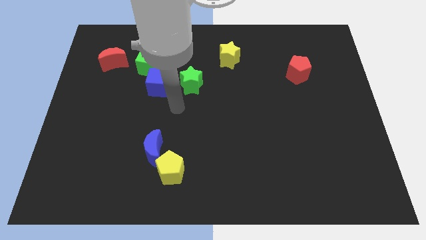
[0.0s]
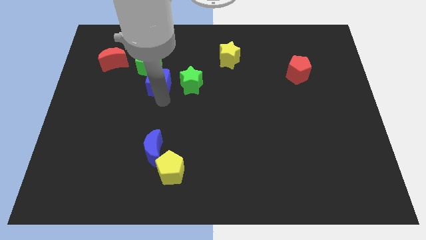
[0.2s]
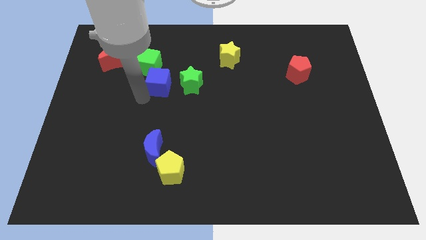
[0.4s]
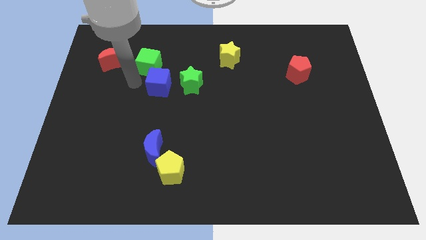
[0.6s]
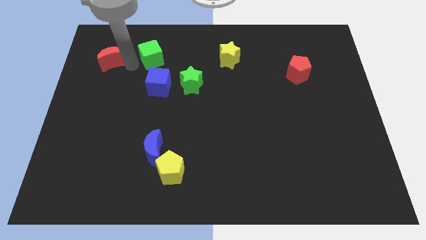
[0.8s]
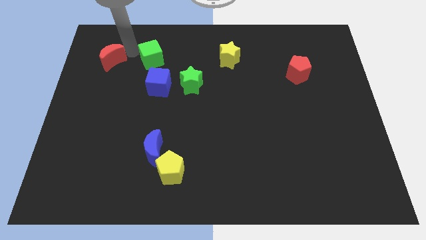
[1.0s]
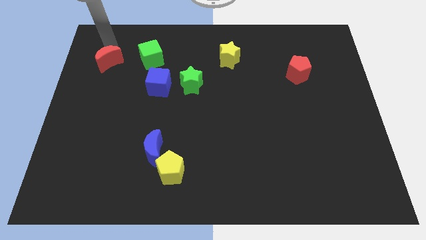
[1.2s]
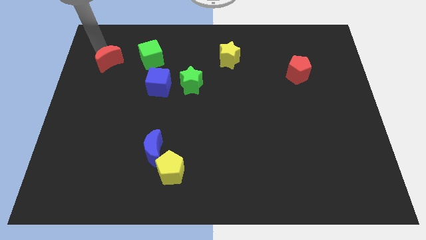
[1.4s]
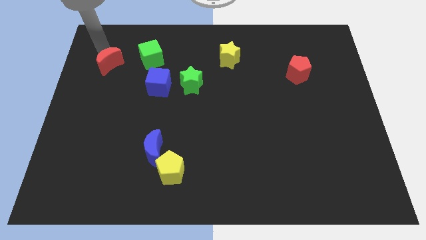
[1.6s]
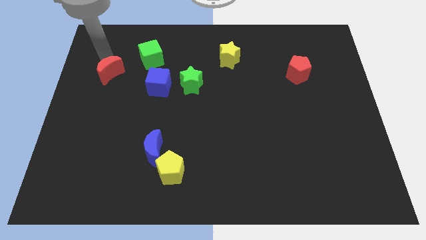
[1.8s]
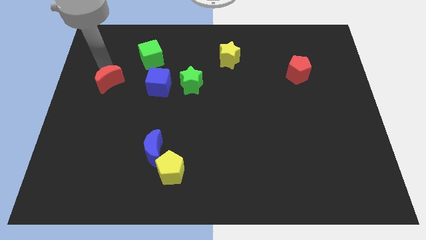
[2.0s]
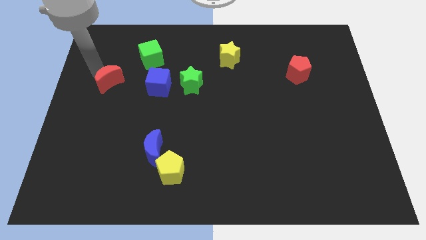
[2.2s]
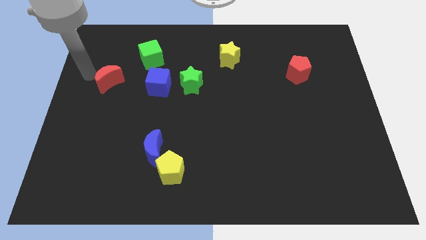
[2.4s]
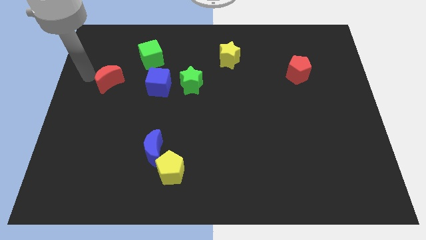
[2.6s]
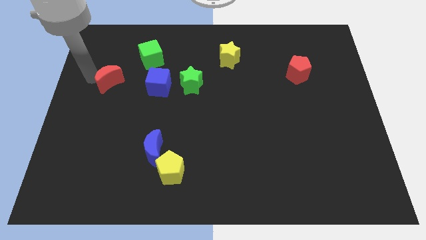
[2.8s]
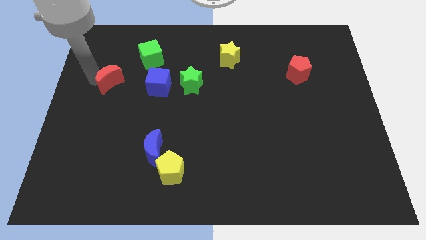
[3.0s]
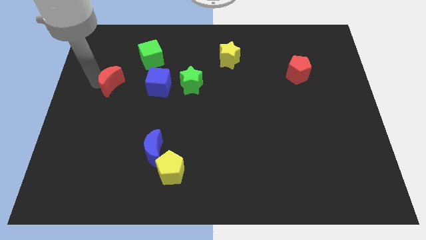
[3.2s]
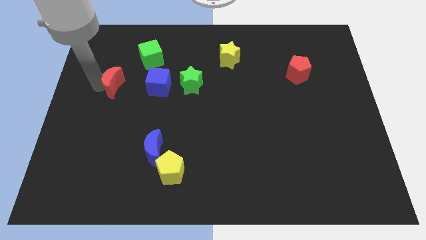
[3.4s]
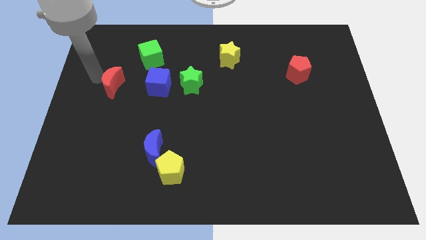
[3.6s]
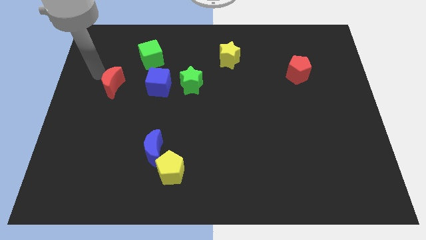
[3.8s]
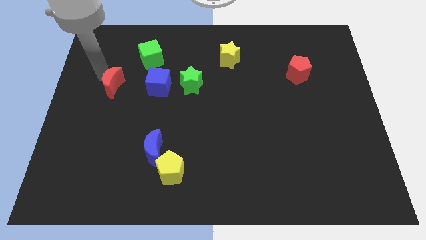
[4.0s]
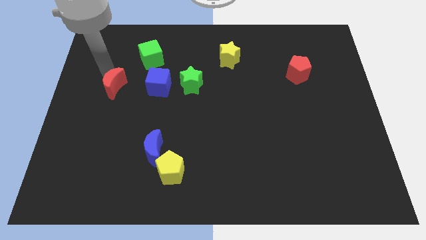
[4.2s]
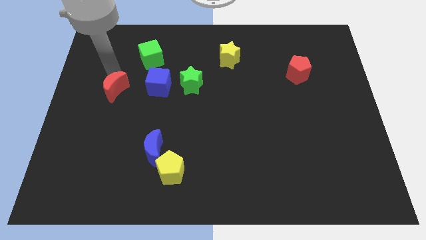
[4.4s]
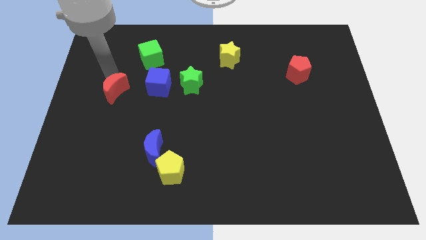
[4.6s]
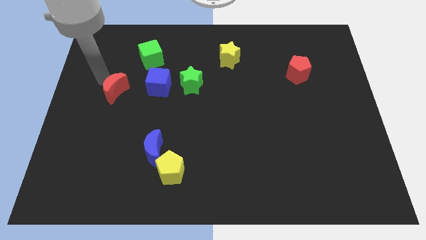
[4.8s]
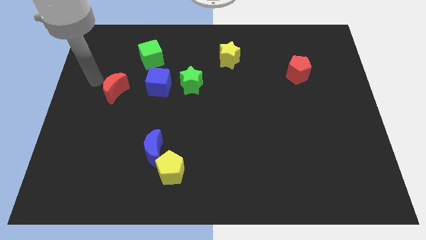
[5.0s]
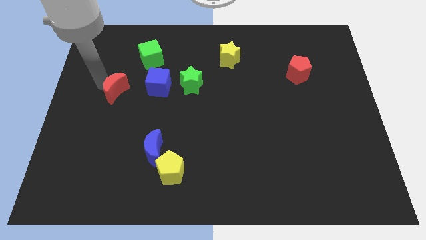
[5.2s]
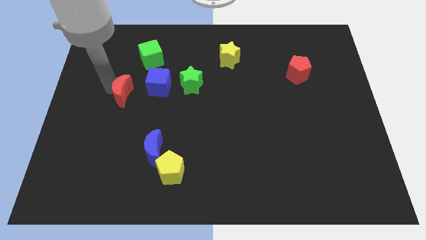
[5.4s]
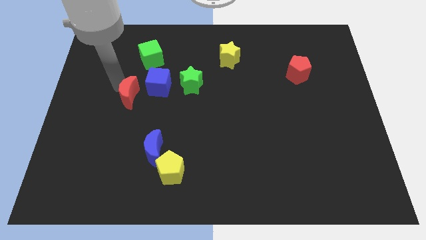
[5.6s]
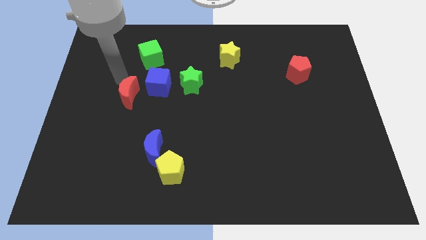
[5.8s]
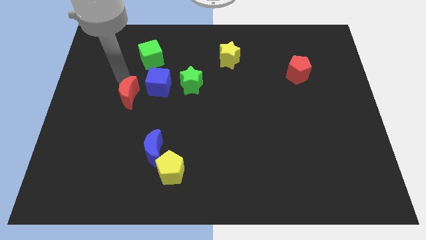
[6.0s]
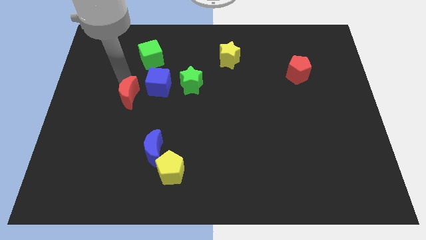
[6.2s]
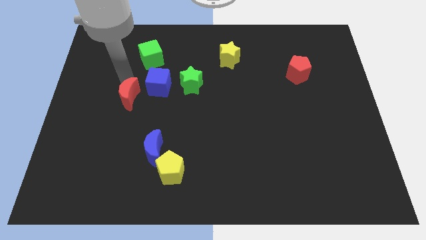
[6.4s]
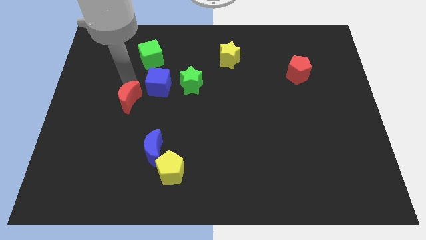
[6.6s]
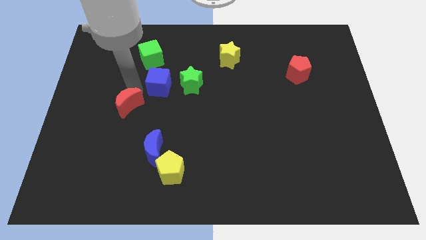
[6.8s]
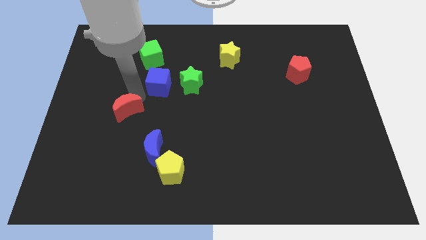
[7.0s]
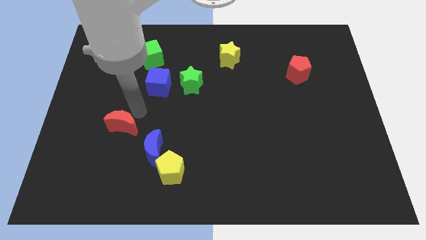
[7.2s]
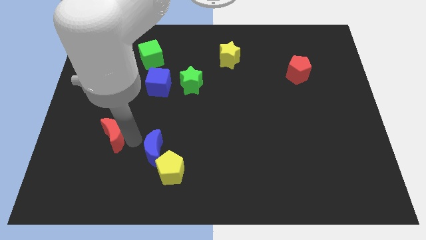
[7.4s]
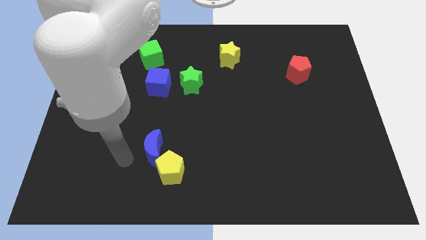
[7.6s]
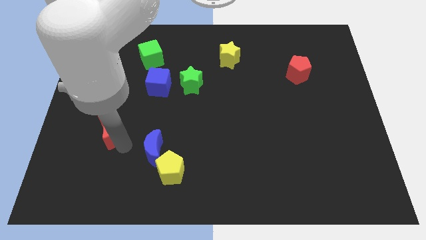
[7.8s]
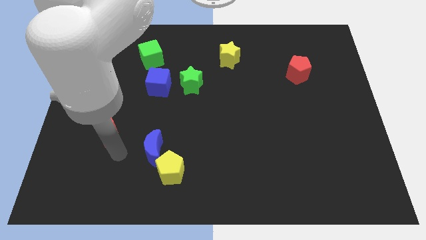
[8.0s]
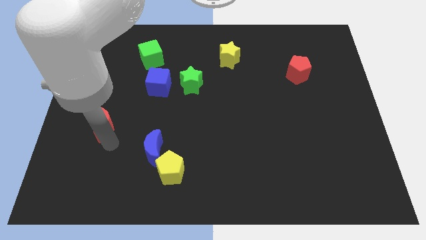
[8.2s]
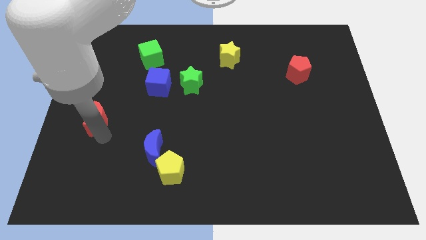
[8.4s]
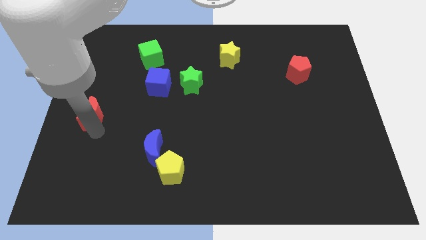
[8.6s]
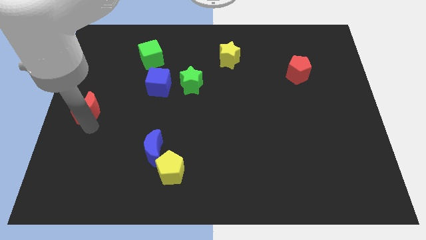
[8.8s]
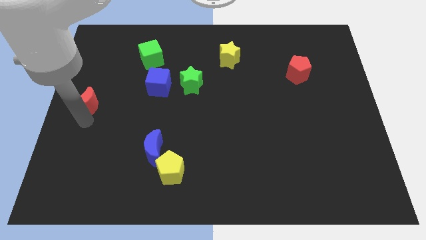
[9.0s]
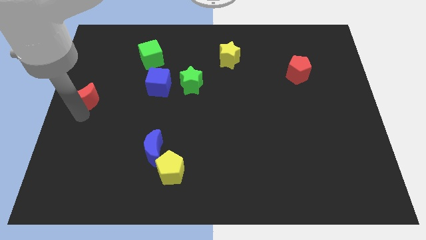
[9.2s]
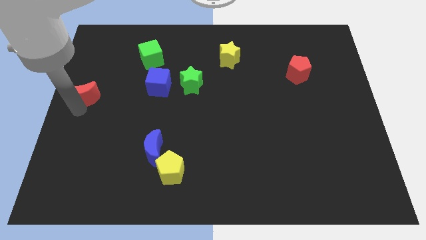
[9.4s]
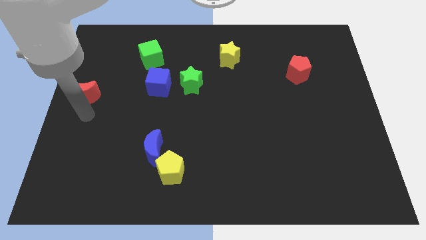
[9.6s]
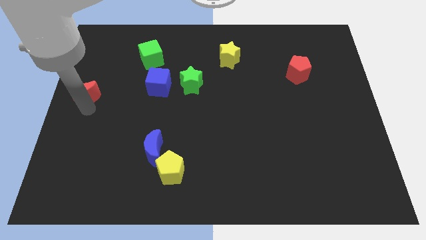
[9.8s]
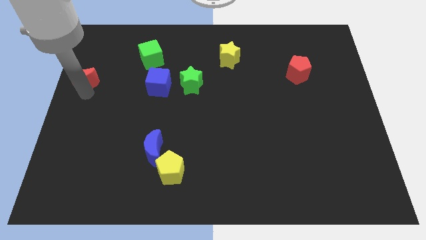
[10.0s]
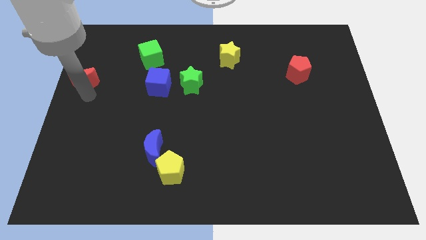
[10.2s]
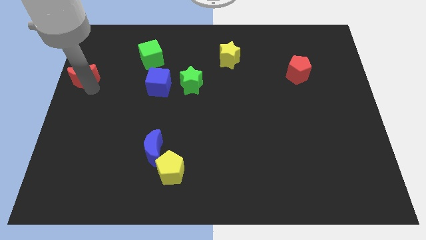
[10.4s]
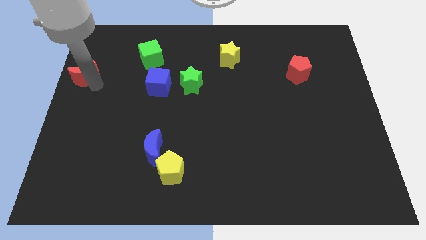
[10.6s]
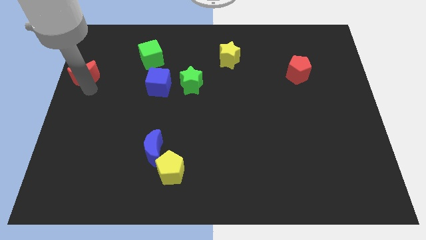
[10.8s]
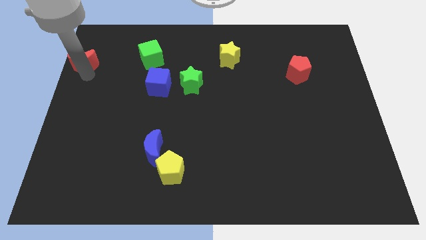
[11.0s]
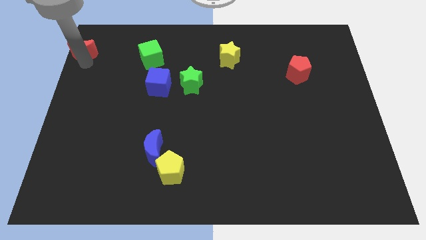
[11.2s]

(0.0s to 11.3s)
slide the red moon to the top left corner

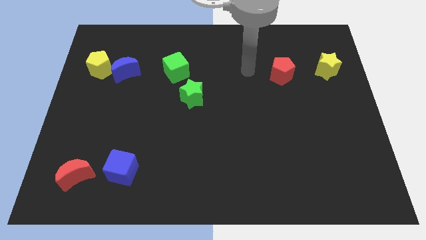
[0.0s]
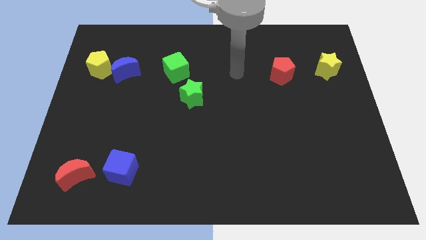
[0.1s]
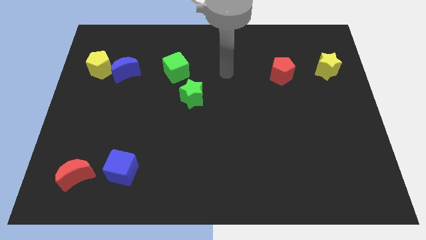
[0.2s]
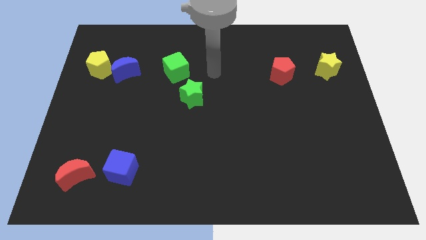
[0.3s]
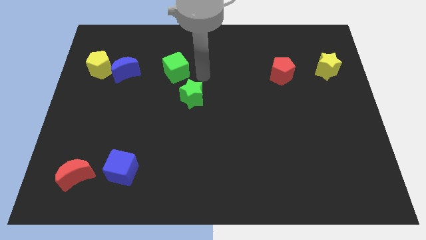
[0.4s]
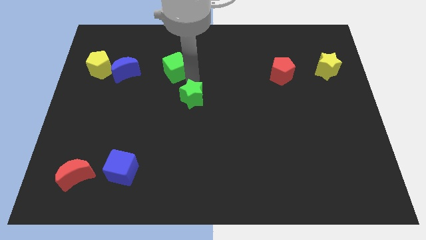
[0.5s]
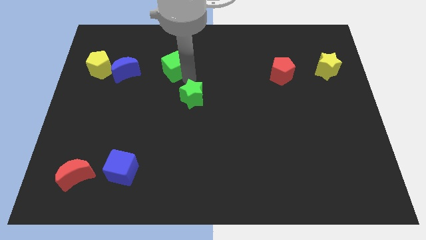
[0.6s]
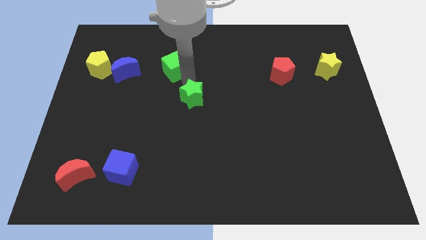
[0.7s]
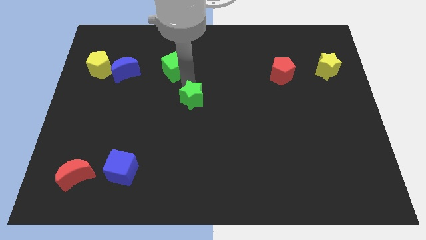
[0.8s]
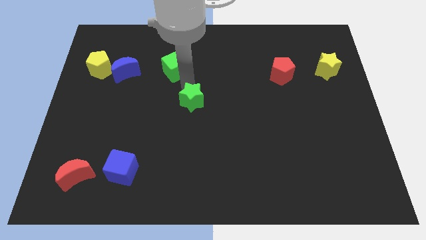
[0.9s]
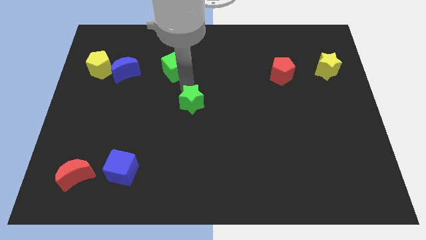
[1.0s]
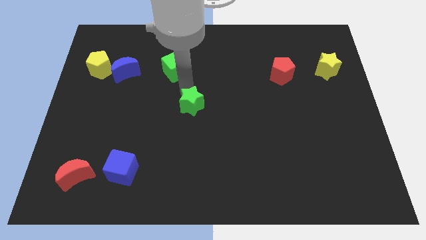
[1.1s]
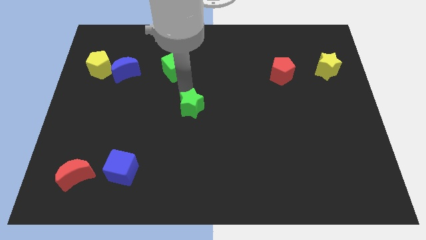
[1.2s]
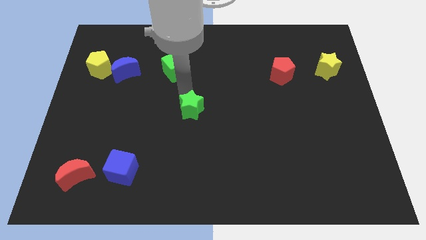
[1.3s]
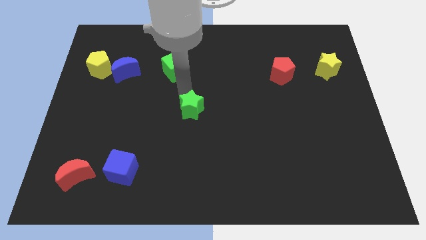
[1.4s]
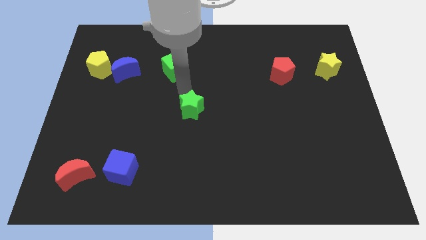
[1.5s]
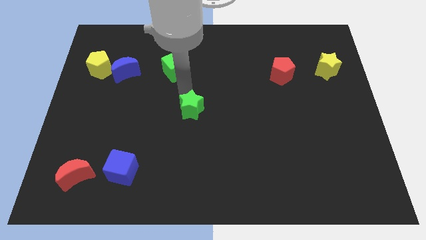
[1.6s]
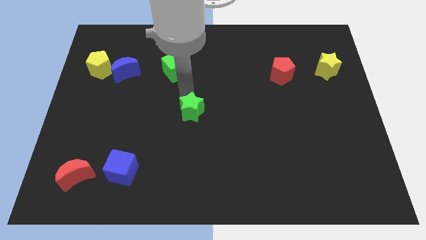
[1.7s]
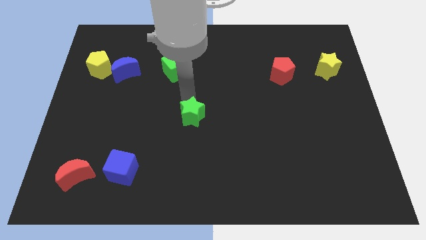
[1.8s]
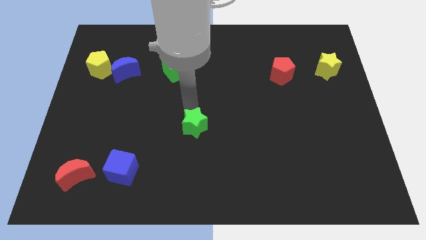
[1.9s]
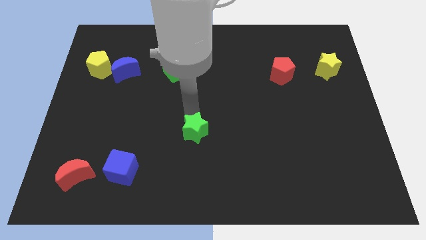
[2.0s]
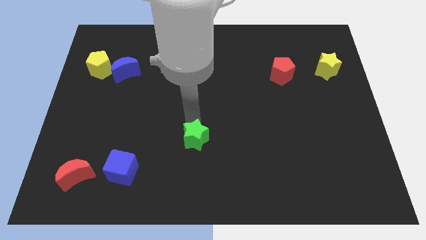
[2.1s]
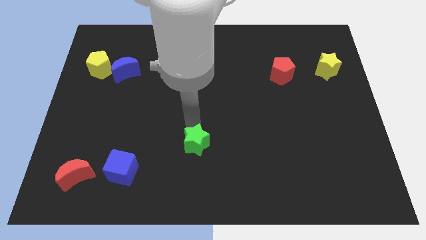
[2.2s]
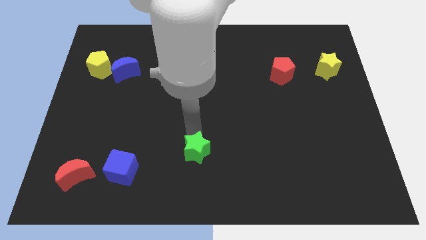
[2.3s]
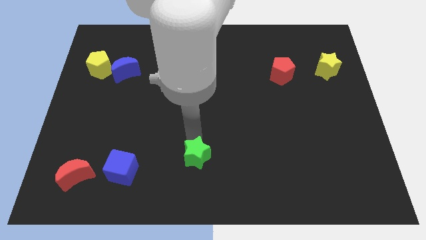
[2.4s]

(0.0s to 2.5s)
put the green star to the bottom side
